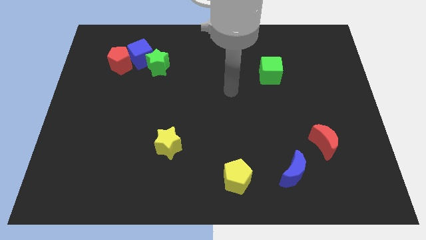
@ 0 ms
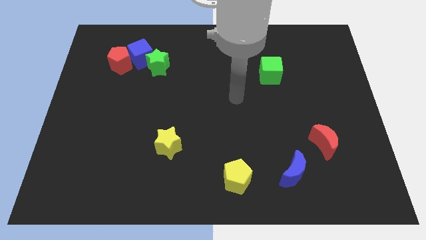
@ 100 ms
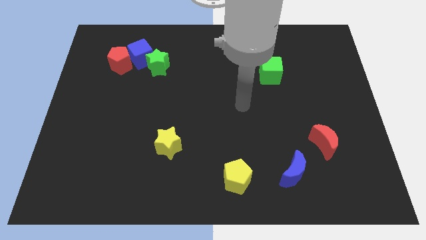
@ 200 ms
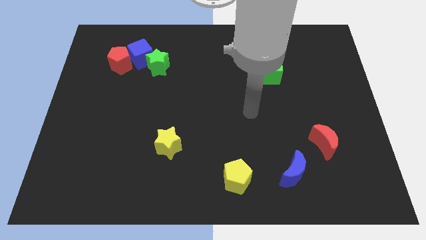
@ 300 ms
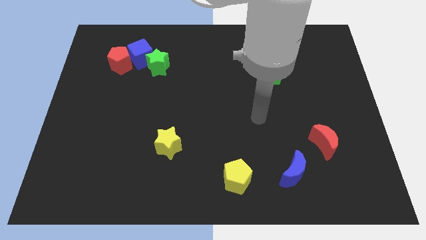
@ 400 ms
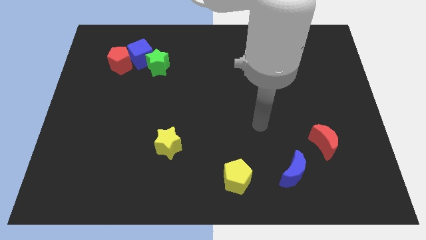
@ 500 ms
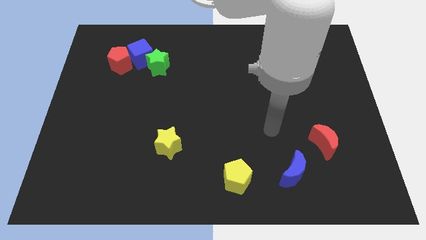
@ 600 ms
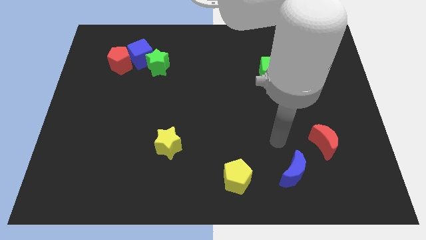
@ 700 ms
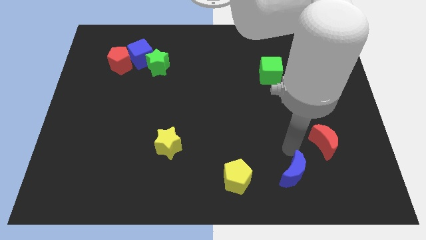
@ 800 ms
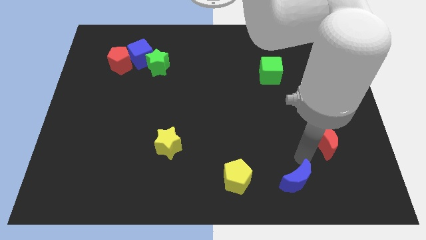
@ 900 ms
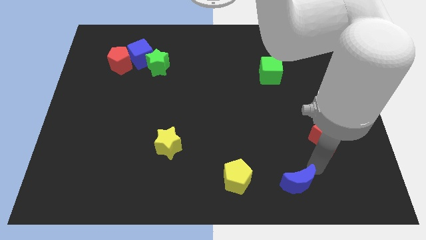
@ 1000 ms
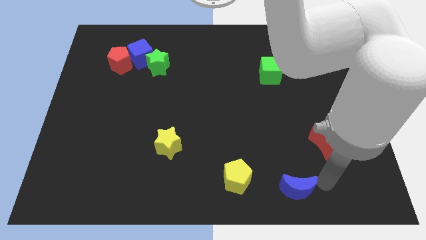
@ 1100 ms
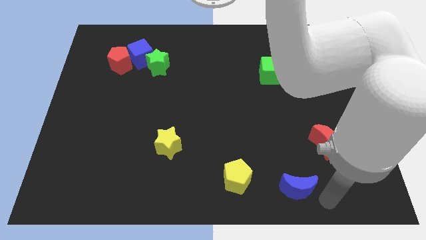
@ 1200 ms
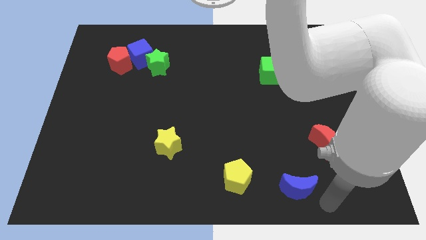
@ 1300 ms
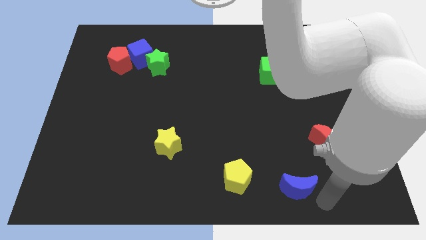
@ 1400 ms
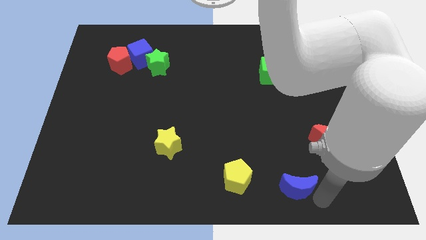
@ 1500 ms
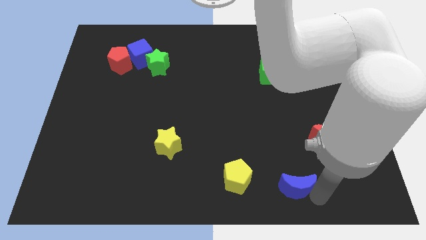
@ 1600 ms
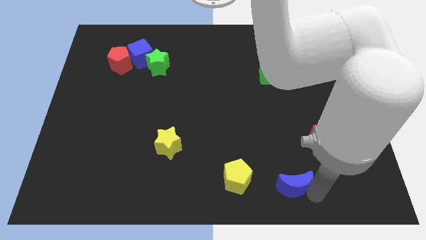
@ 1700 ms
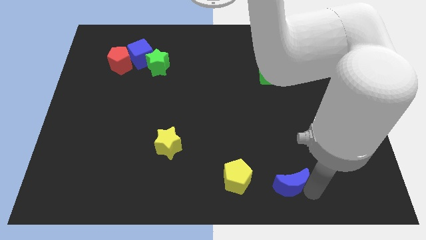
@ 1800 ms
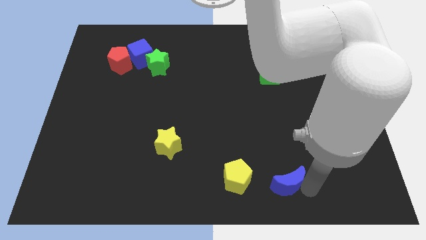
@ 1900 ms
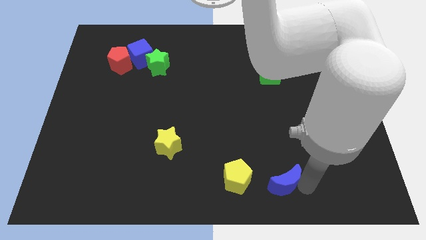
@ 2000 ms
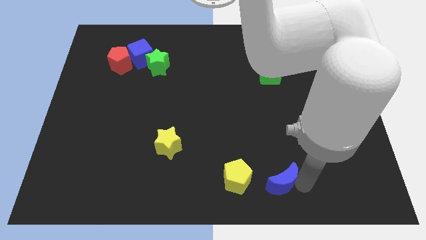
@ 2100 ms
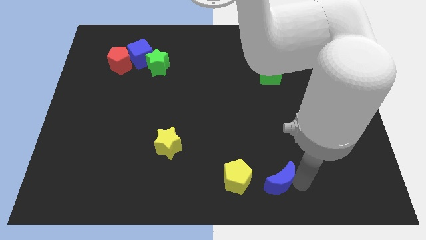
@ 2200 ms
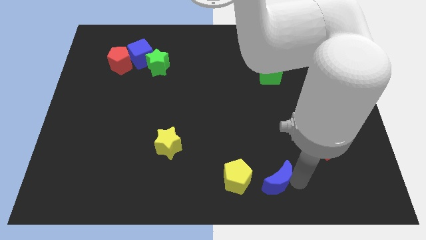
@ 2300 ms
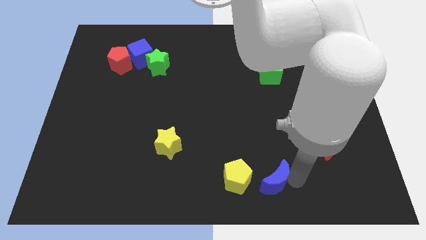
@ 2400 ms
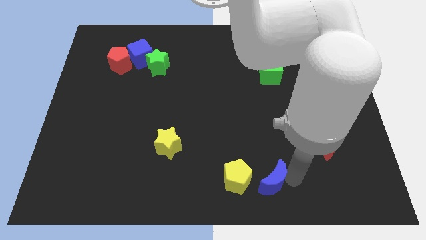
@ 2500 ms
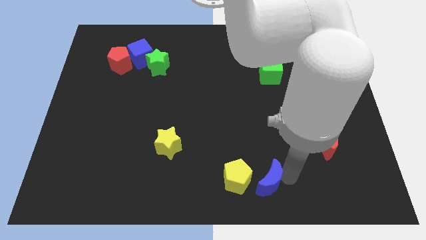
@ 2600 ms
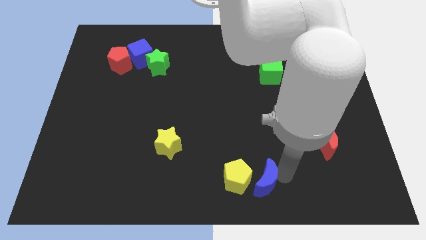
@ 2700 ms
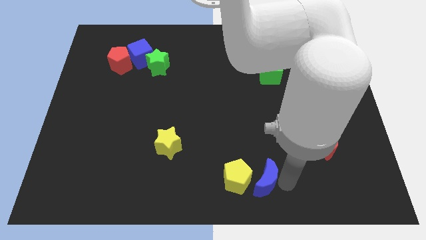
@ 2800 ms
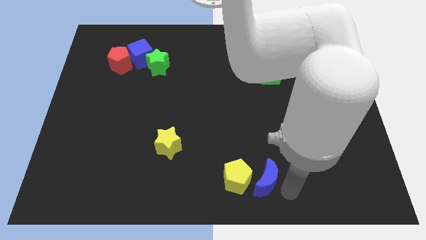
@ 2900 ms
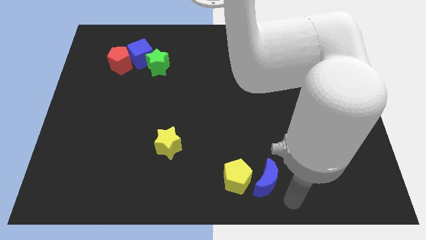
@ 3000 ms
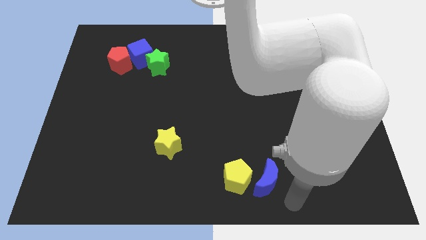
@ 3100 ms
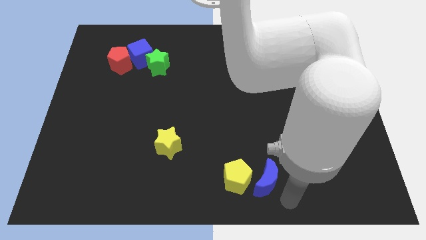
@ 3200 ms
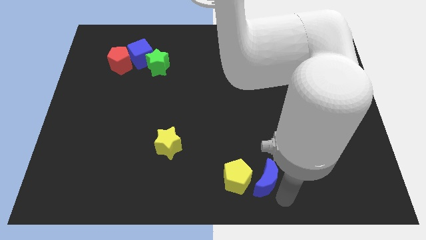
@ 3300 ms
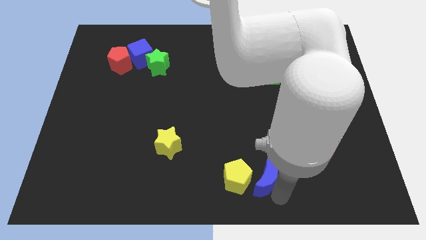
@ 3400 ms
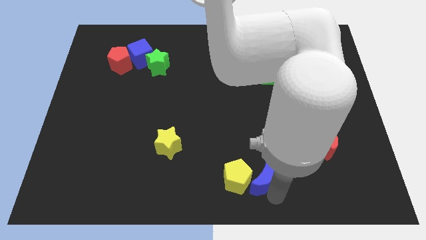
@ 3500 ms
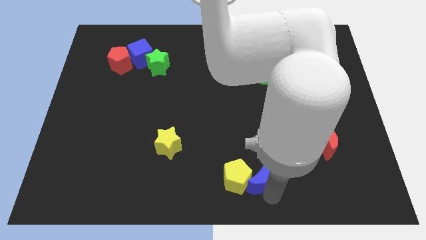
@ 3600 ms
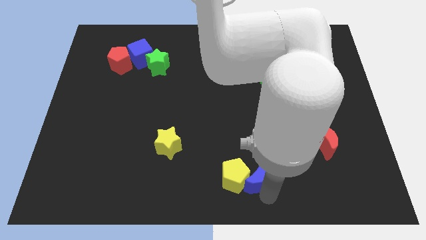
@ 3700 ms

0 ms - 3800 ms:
slide the blue moon left a little

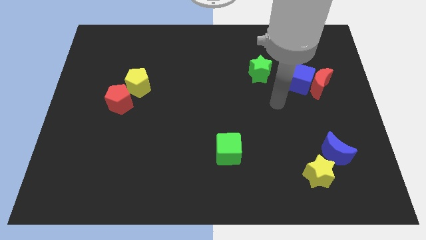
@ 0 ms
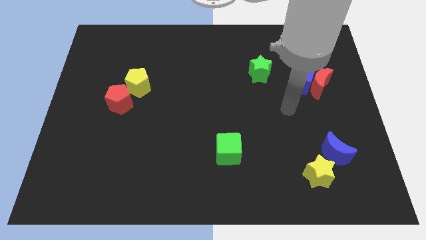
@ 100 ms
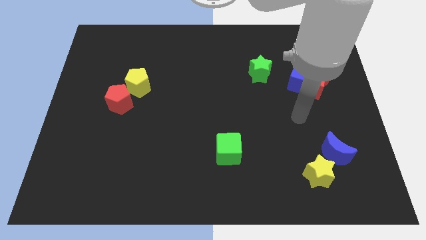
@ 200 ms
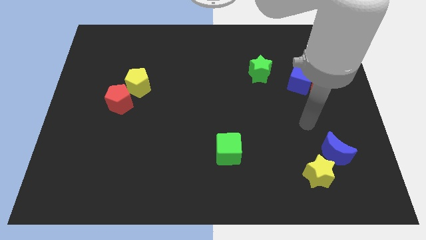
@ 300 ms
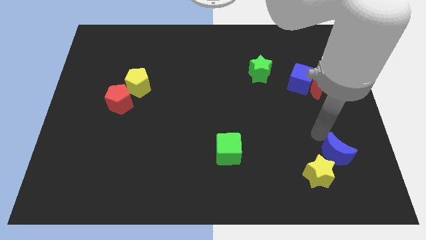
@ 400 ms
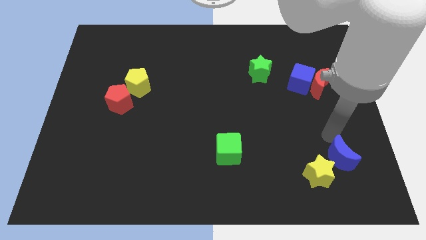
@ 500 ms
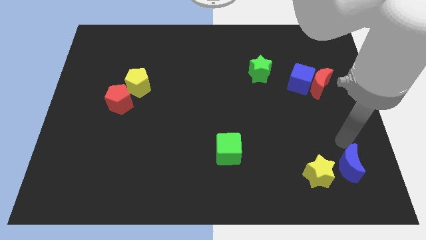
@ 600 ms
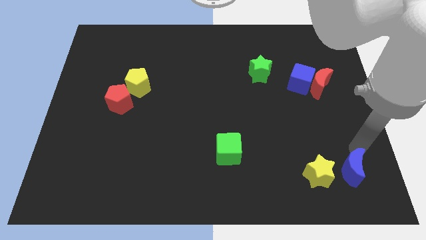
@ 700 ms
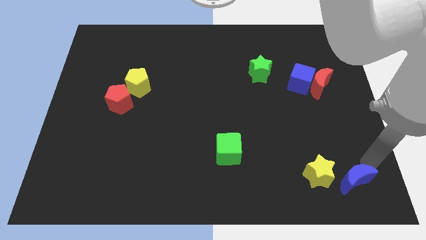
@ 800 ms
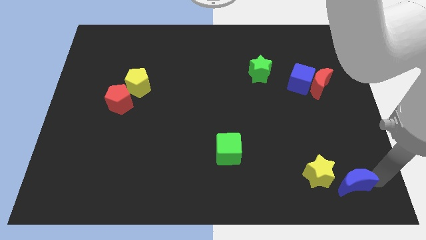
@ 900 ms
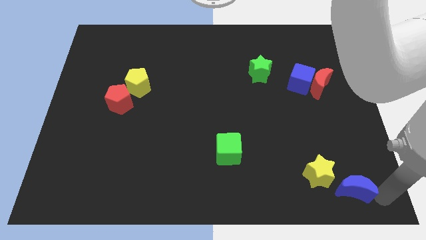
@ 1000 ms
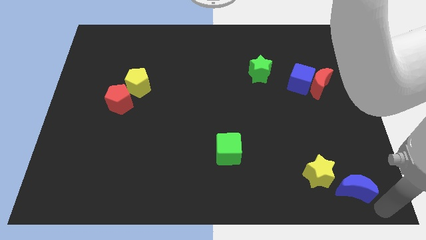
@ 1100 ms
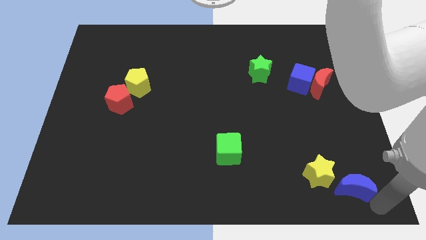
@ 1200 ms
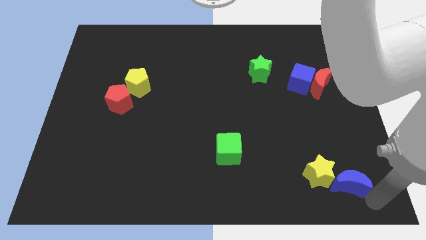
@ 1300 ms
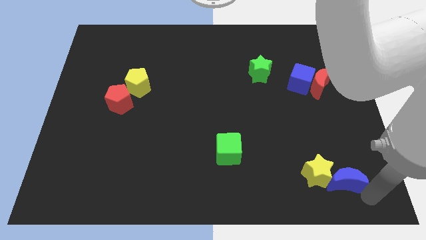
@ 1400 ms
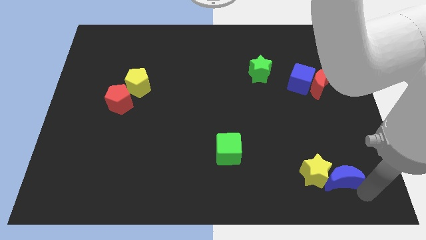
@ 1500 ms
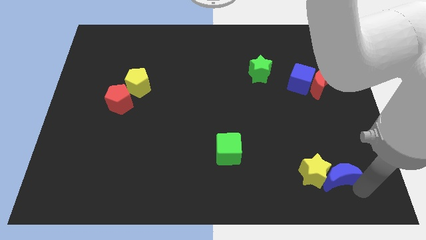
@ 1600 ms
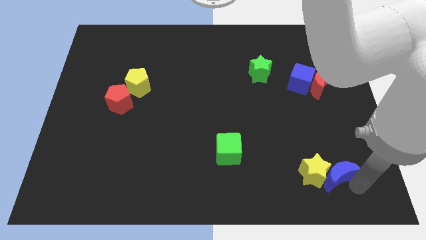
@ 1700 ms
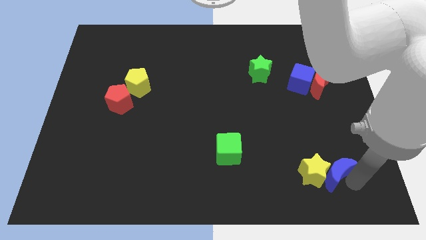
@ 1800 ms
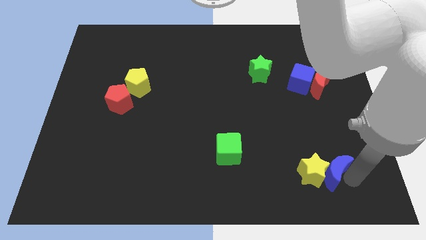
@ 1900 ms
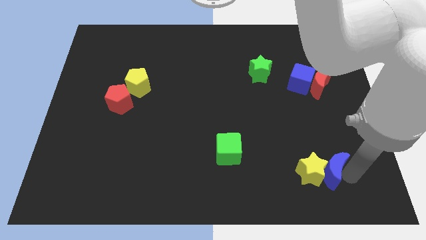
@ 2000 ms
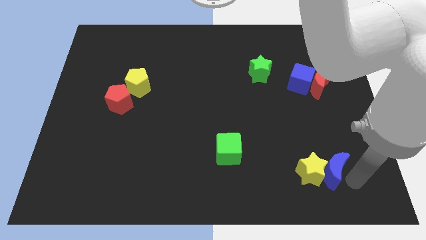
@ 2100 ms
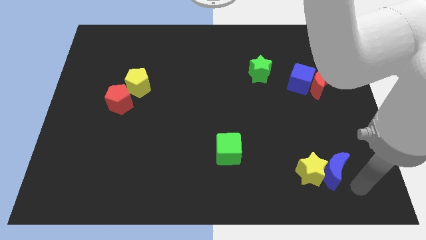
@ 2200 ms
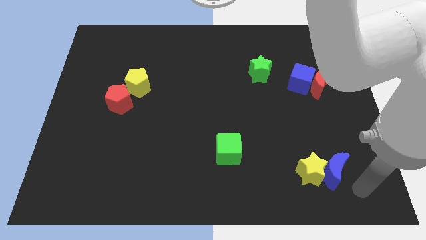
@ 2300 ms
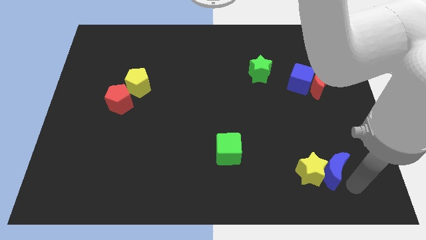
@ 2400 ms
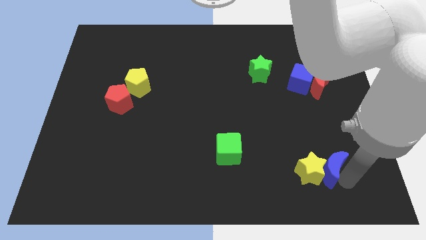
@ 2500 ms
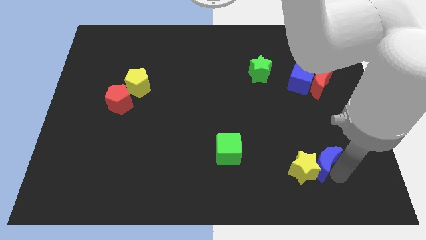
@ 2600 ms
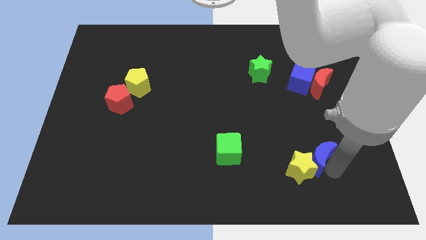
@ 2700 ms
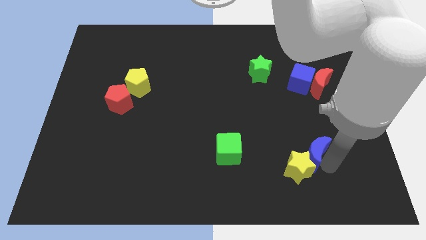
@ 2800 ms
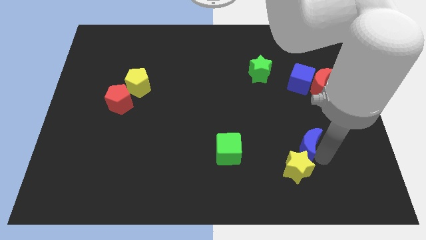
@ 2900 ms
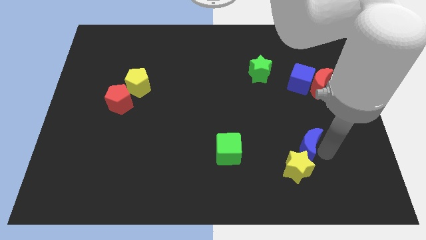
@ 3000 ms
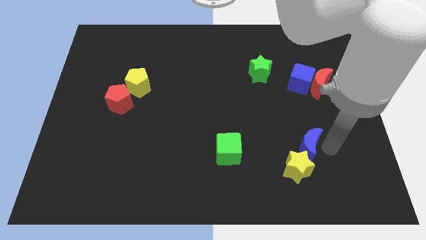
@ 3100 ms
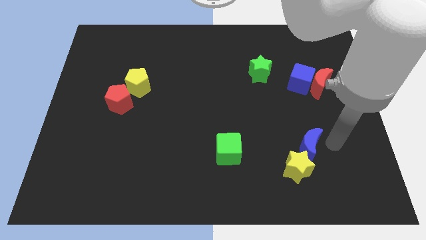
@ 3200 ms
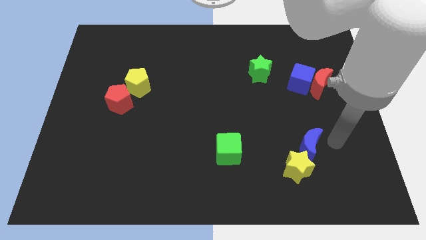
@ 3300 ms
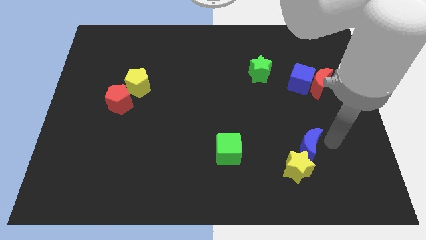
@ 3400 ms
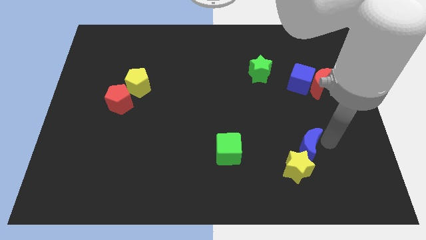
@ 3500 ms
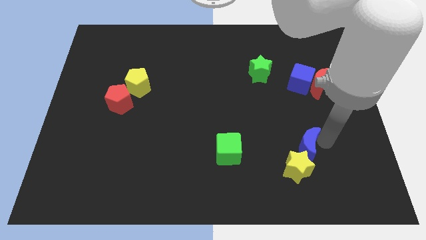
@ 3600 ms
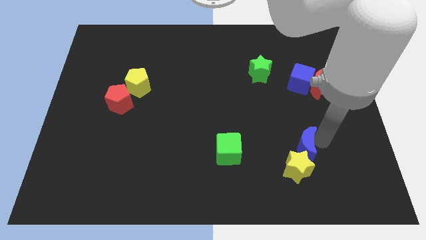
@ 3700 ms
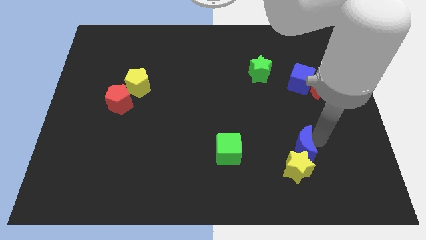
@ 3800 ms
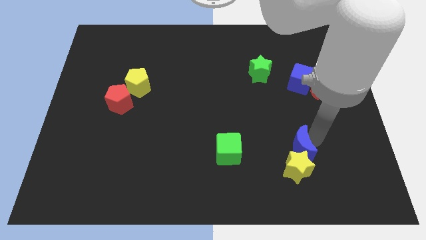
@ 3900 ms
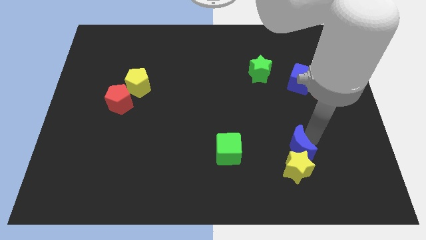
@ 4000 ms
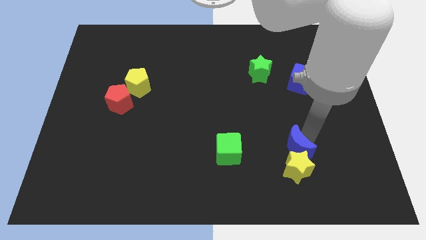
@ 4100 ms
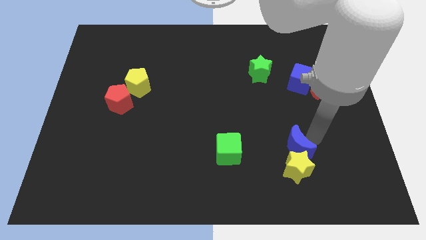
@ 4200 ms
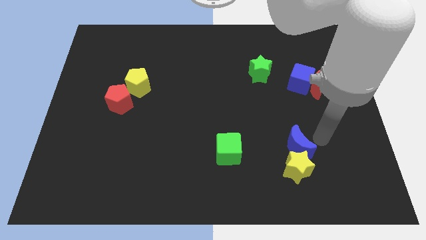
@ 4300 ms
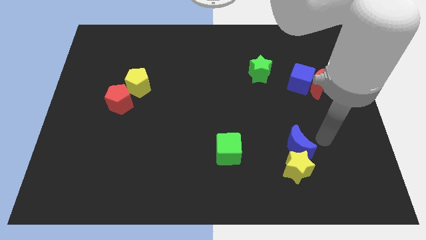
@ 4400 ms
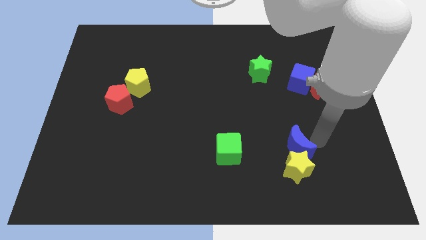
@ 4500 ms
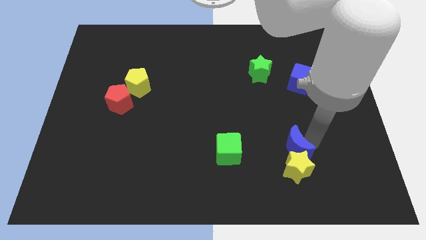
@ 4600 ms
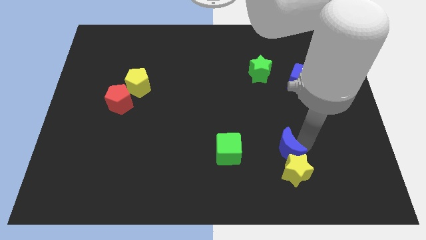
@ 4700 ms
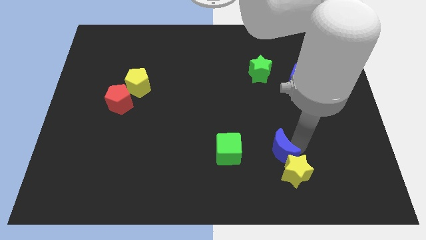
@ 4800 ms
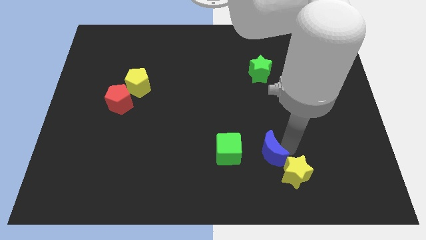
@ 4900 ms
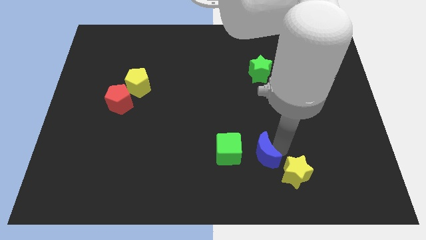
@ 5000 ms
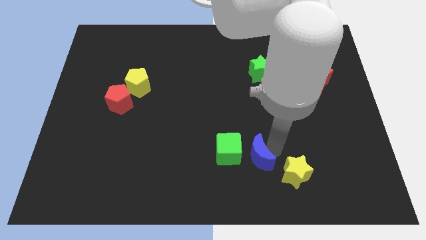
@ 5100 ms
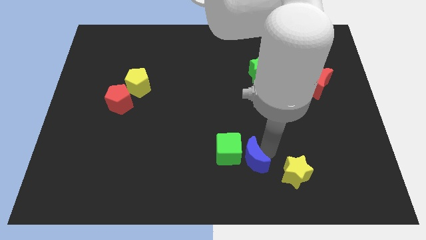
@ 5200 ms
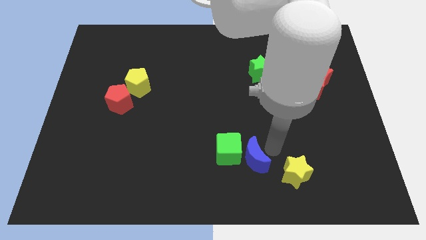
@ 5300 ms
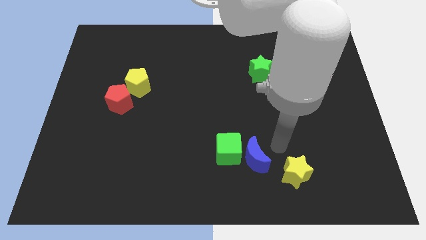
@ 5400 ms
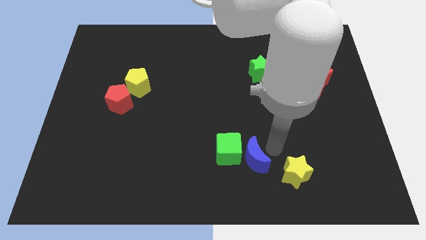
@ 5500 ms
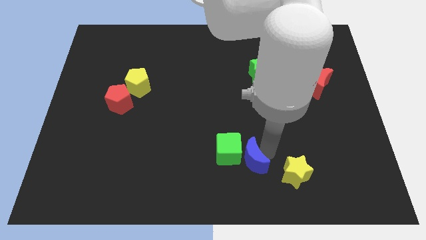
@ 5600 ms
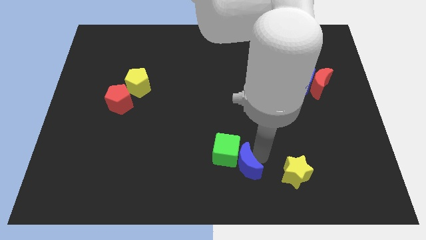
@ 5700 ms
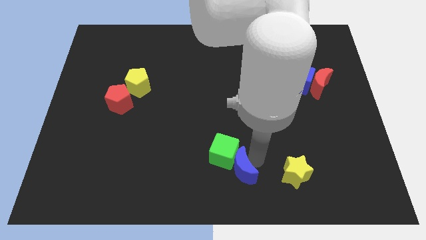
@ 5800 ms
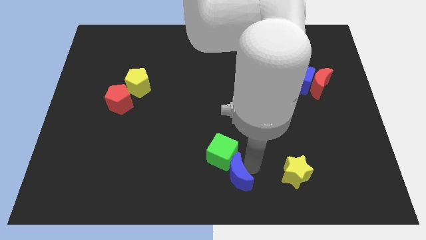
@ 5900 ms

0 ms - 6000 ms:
move the blue moon to the left
